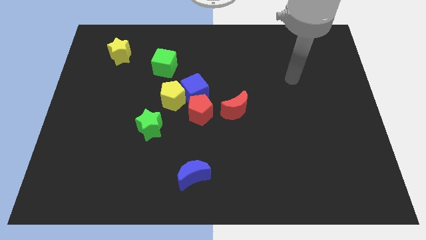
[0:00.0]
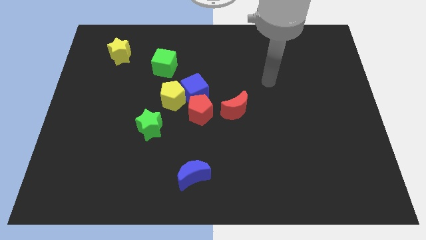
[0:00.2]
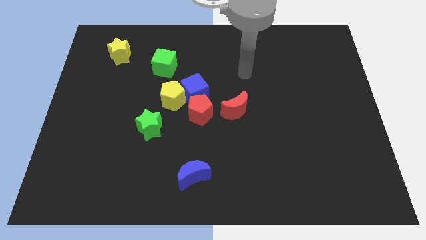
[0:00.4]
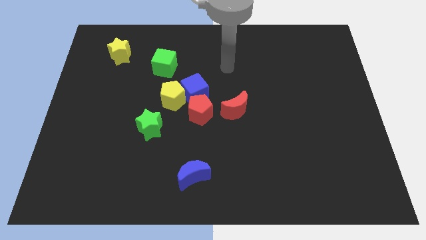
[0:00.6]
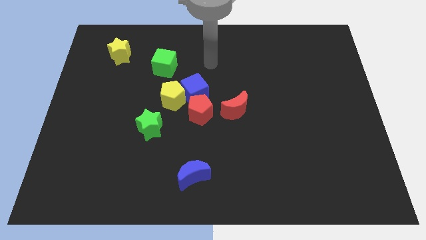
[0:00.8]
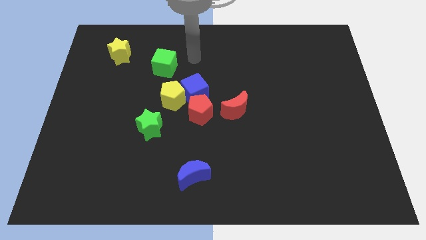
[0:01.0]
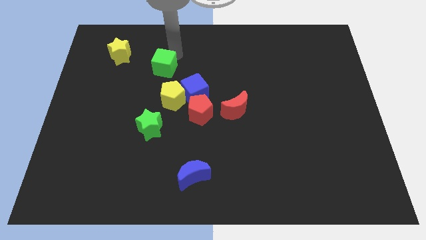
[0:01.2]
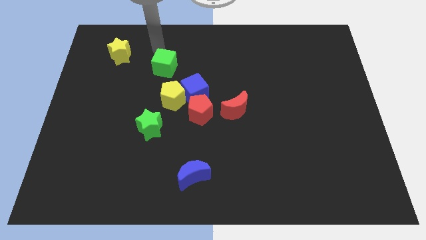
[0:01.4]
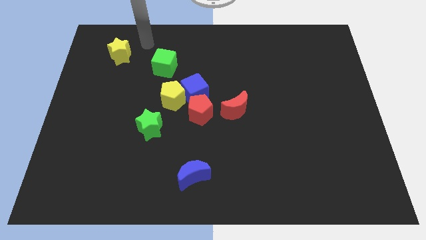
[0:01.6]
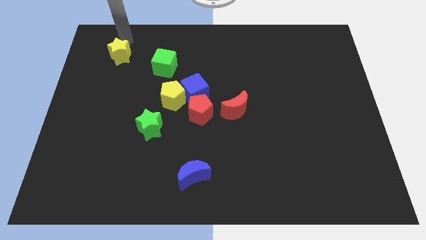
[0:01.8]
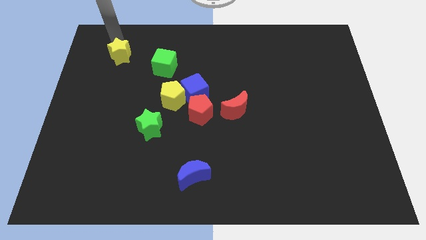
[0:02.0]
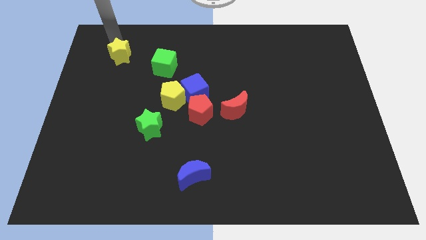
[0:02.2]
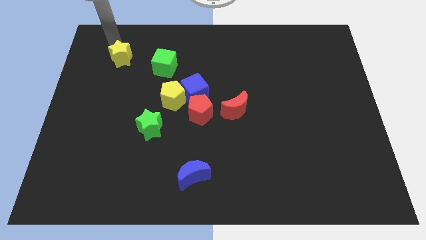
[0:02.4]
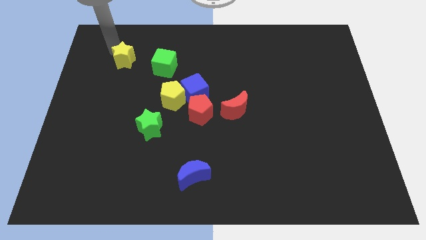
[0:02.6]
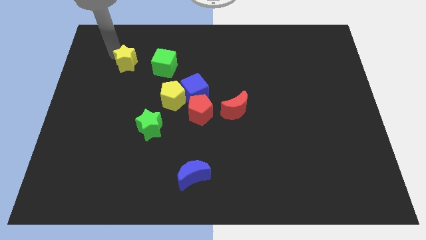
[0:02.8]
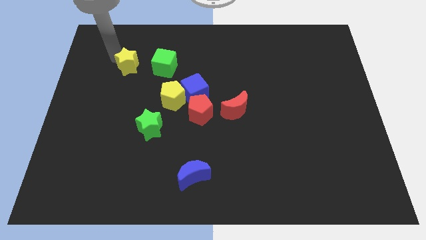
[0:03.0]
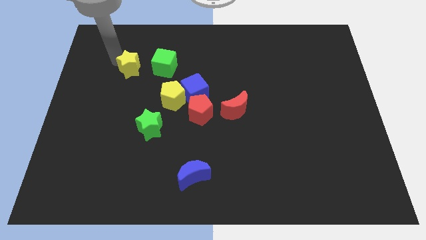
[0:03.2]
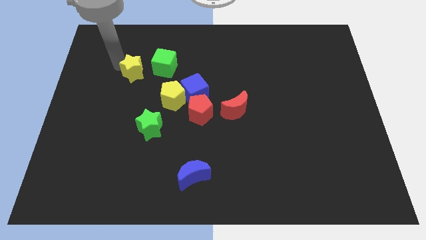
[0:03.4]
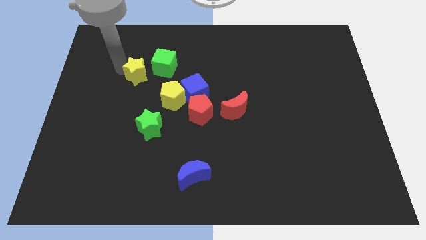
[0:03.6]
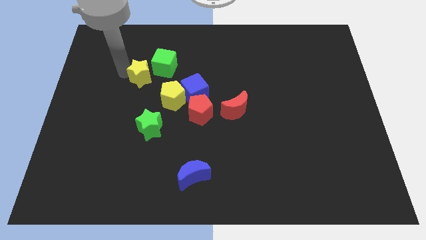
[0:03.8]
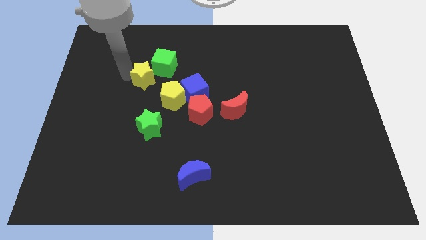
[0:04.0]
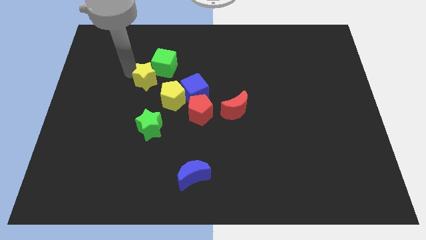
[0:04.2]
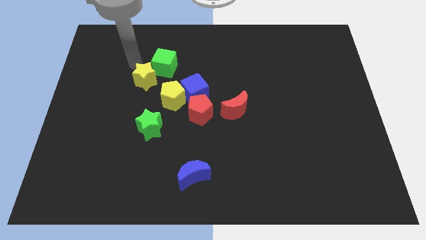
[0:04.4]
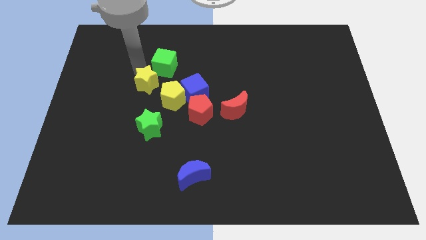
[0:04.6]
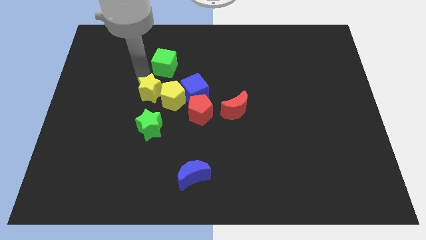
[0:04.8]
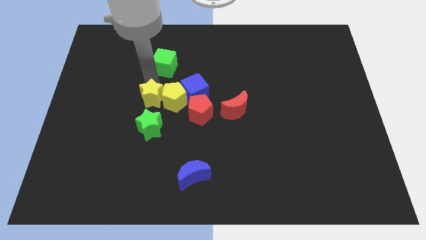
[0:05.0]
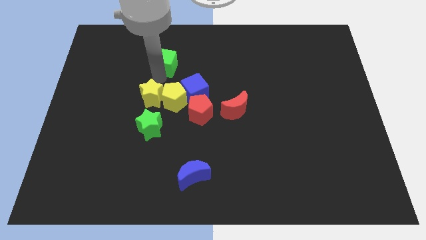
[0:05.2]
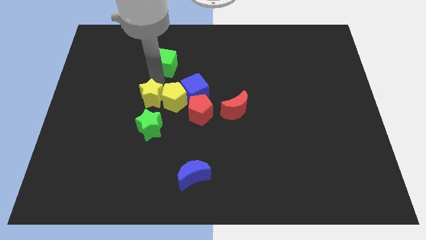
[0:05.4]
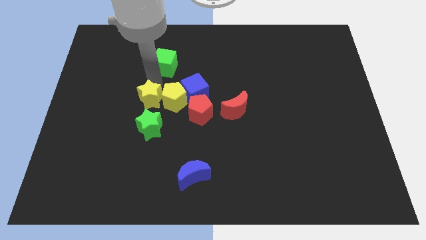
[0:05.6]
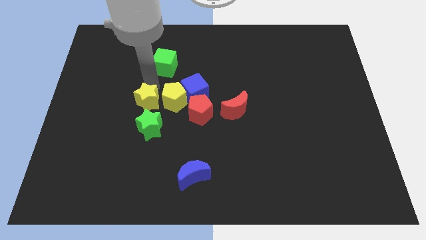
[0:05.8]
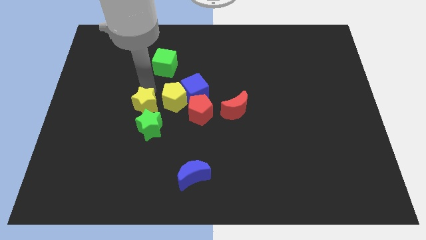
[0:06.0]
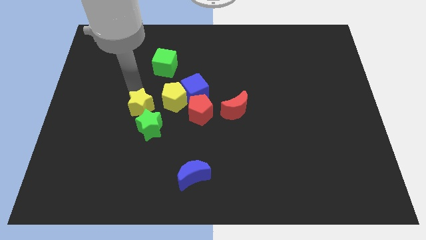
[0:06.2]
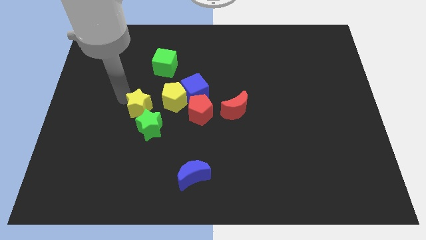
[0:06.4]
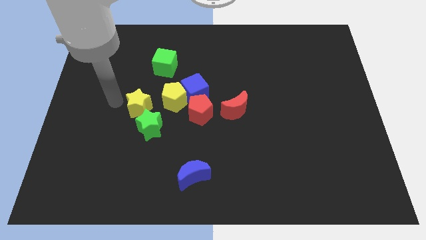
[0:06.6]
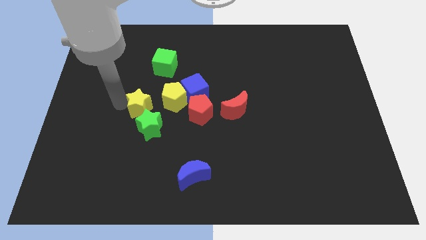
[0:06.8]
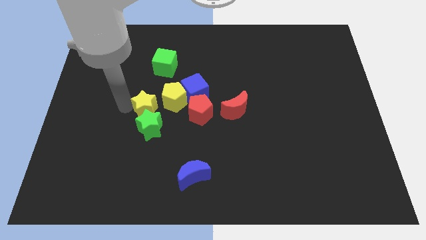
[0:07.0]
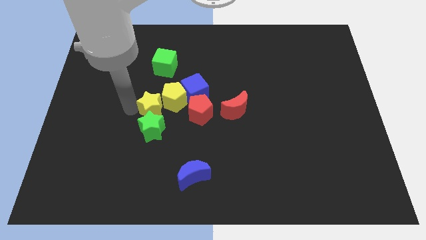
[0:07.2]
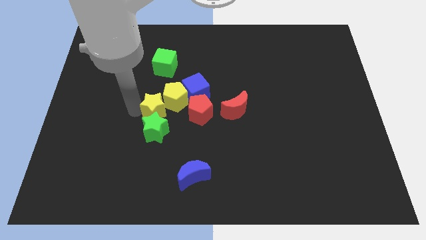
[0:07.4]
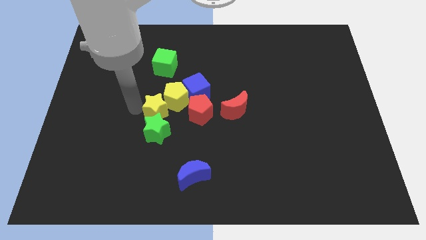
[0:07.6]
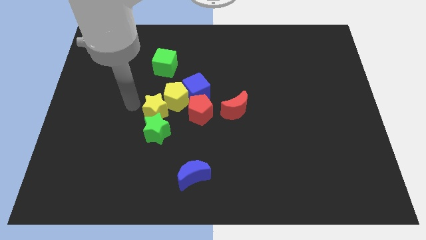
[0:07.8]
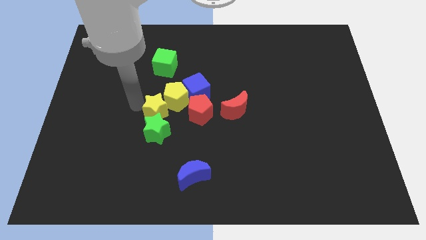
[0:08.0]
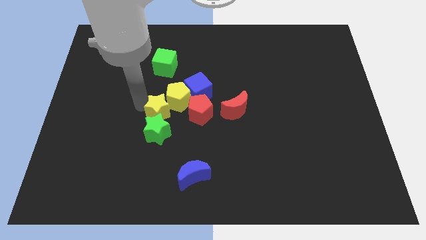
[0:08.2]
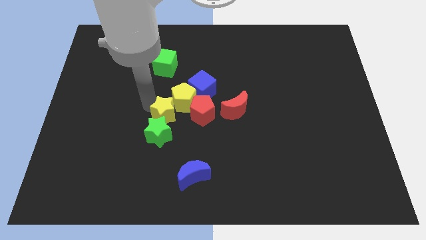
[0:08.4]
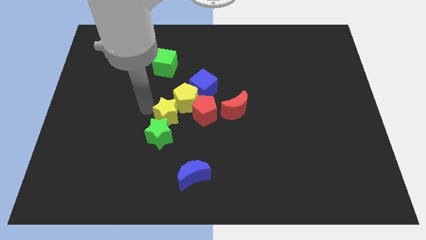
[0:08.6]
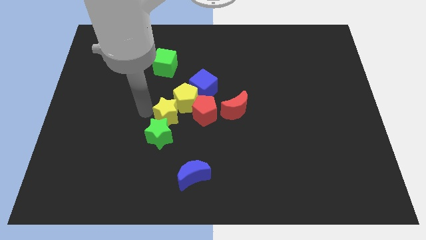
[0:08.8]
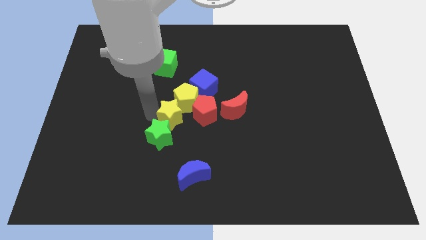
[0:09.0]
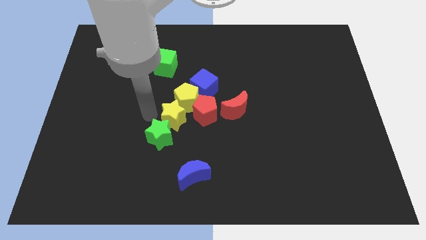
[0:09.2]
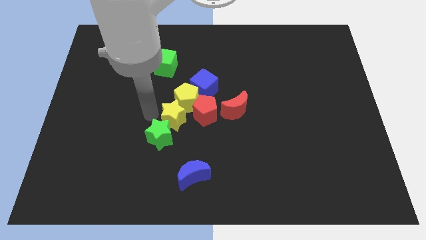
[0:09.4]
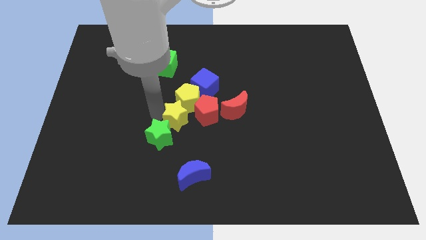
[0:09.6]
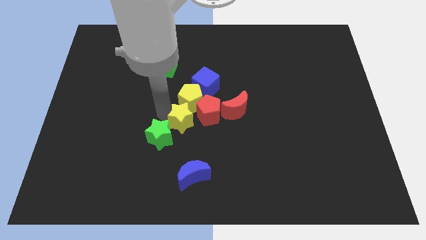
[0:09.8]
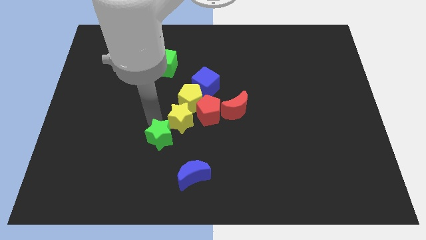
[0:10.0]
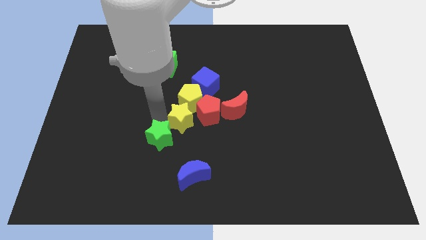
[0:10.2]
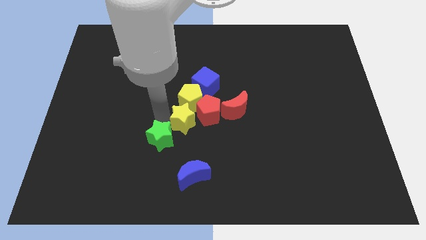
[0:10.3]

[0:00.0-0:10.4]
slide the yellow star below the blue cube

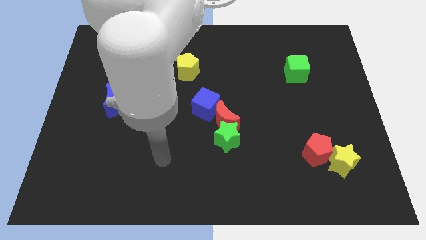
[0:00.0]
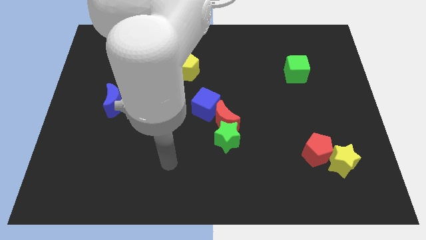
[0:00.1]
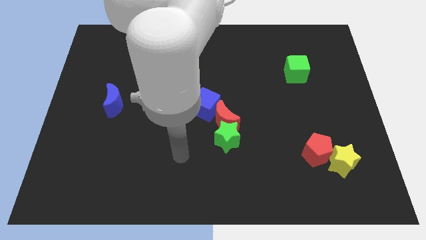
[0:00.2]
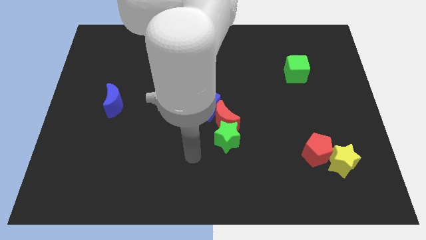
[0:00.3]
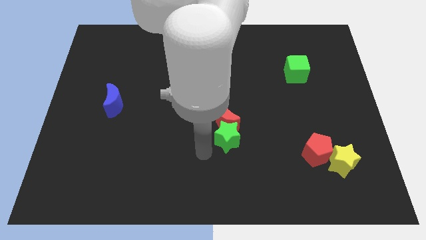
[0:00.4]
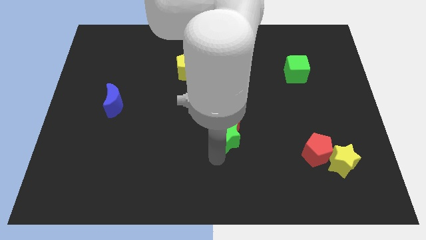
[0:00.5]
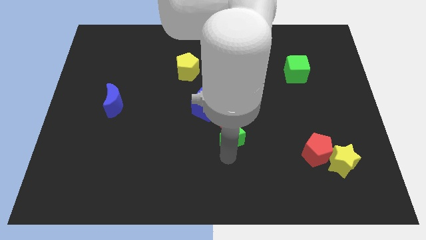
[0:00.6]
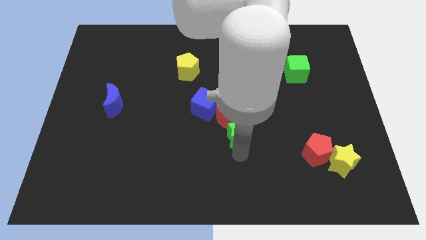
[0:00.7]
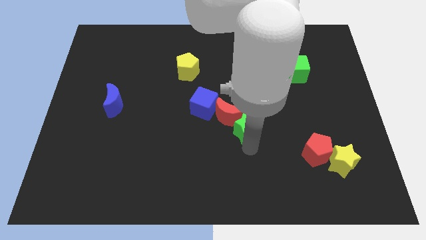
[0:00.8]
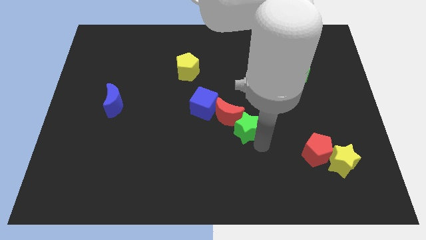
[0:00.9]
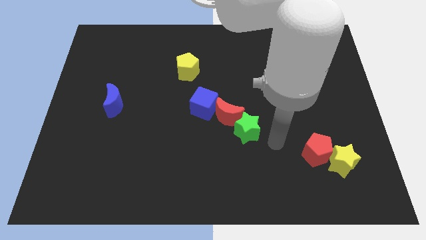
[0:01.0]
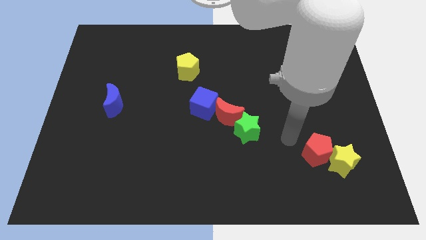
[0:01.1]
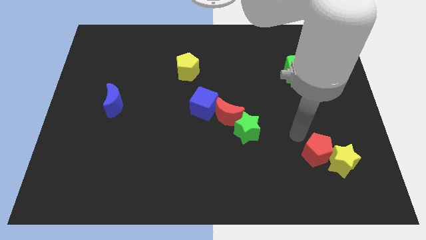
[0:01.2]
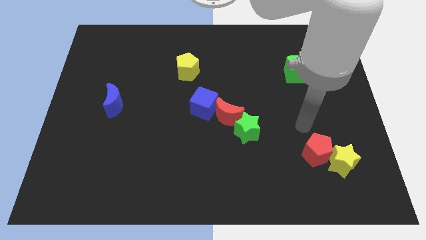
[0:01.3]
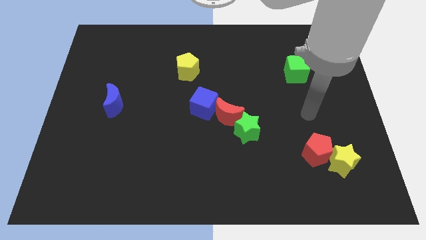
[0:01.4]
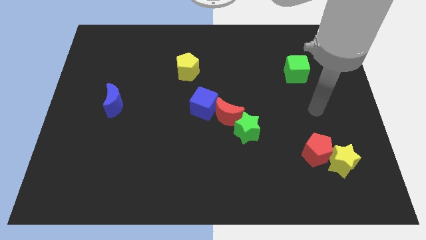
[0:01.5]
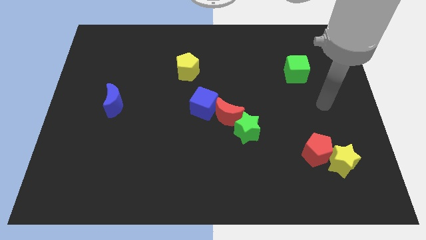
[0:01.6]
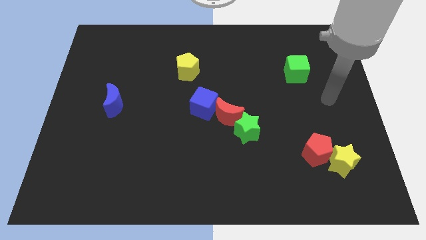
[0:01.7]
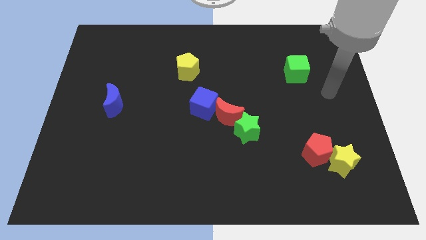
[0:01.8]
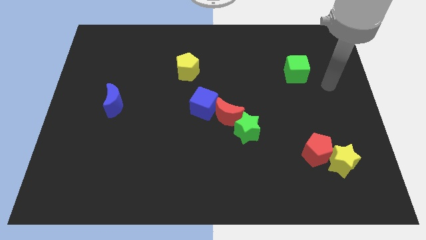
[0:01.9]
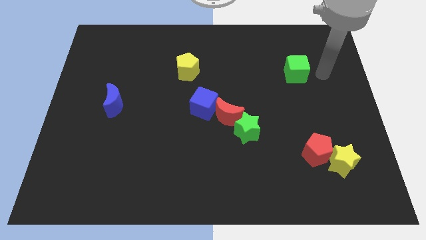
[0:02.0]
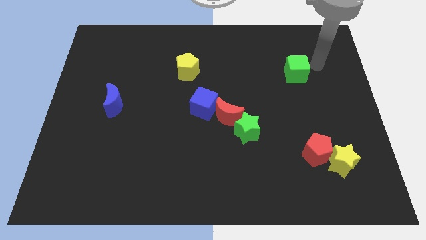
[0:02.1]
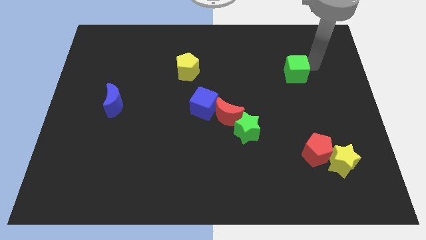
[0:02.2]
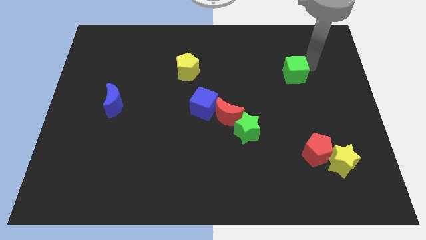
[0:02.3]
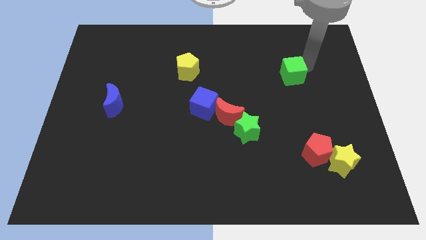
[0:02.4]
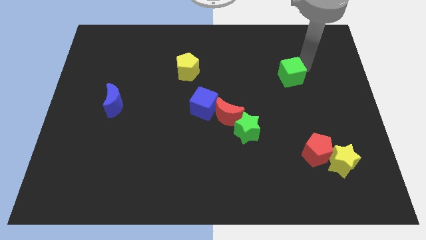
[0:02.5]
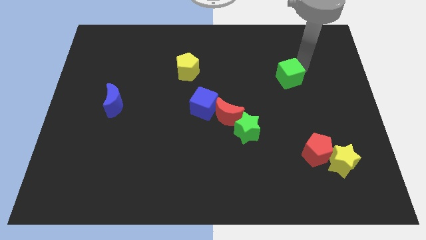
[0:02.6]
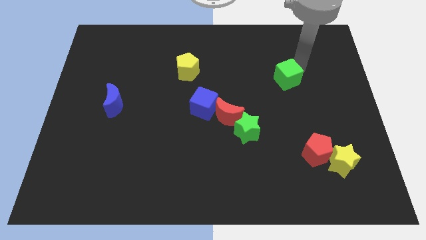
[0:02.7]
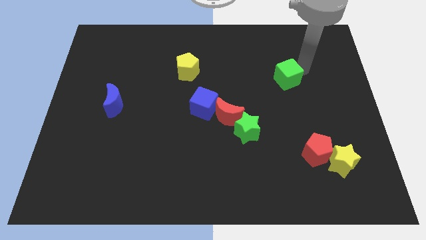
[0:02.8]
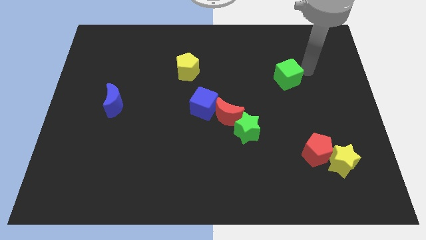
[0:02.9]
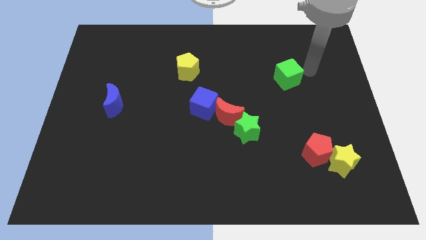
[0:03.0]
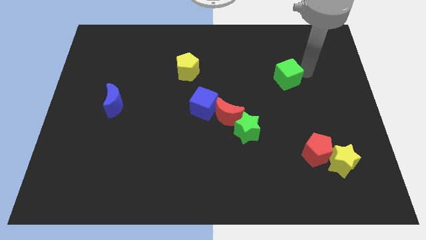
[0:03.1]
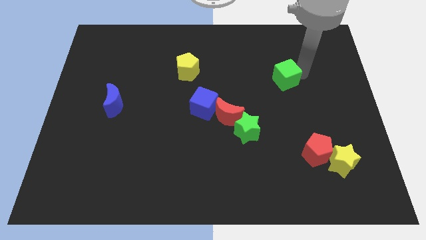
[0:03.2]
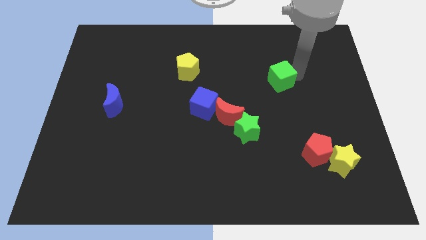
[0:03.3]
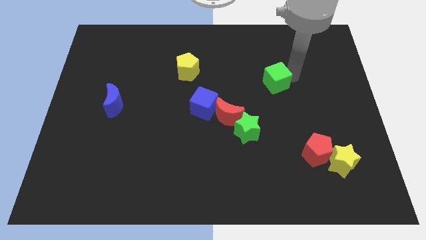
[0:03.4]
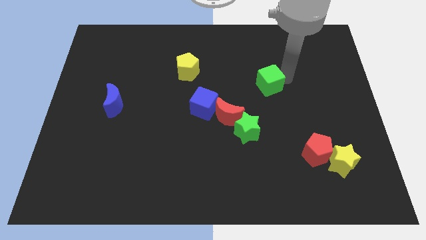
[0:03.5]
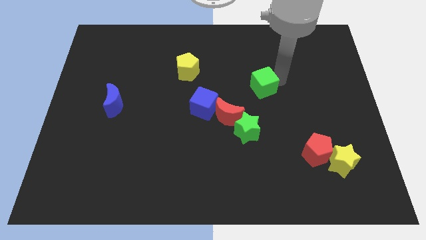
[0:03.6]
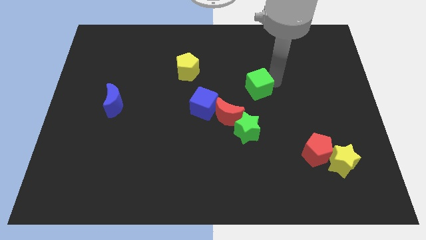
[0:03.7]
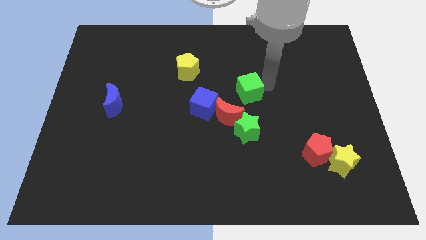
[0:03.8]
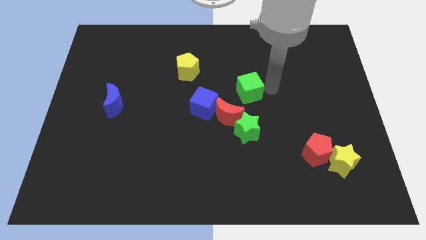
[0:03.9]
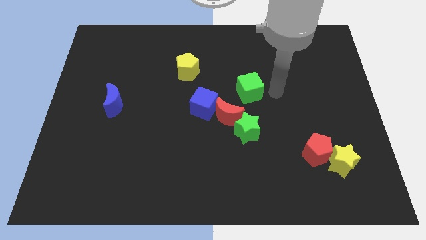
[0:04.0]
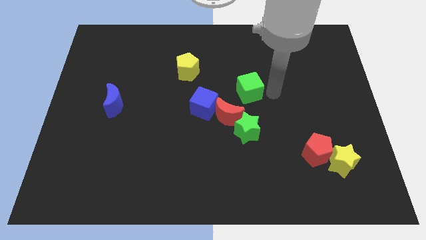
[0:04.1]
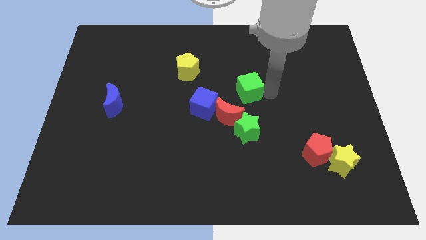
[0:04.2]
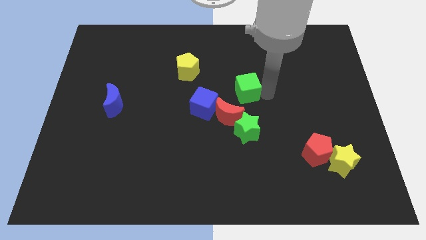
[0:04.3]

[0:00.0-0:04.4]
push the green cube to the top right side of the blue cube
